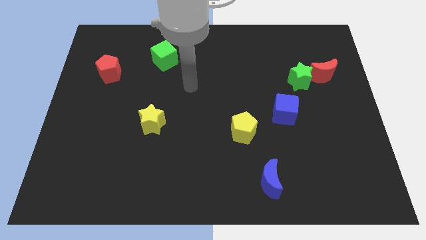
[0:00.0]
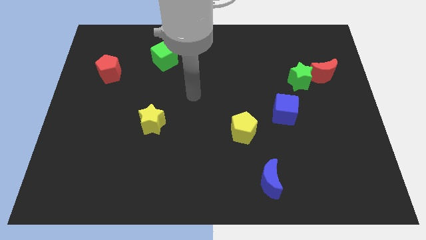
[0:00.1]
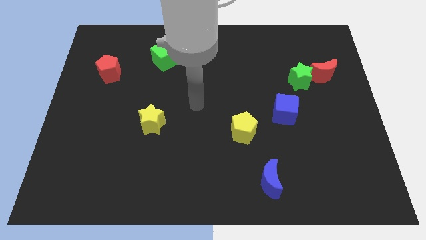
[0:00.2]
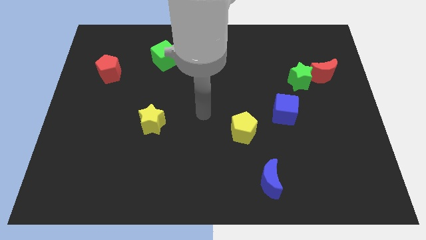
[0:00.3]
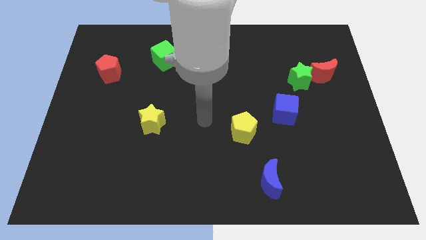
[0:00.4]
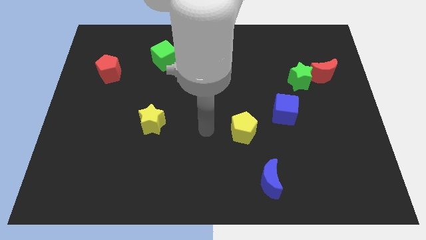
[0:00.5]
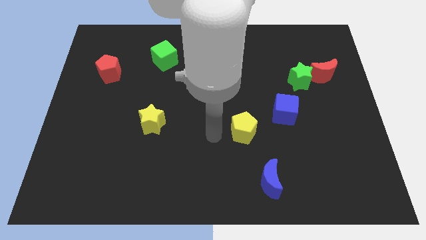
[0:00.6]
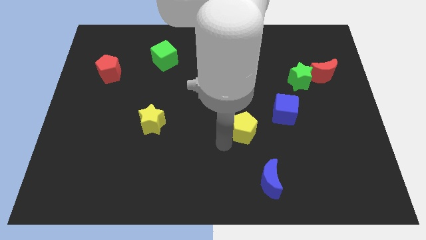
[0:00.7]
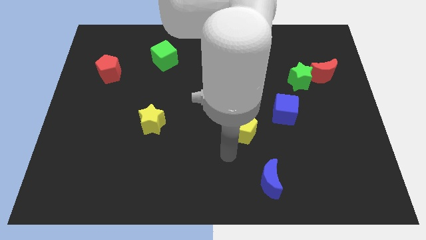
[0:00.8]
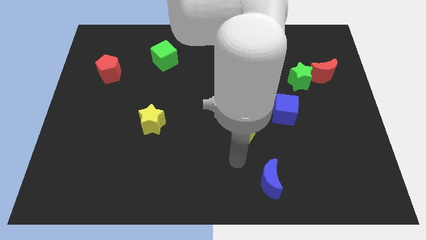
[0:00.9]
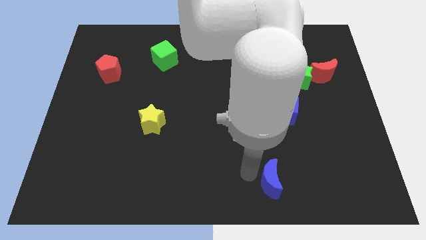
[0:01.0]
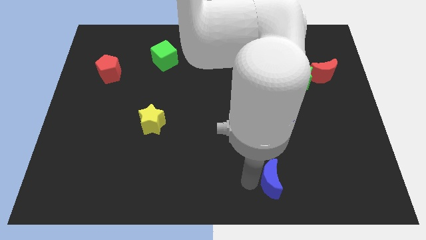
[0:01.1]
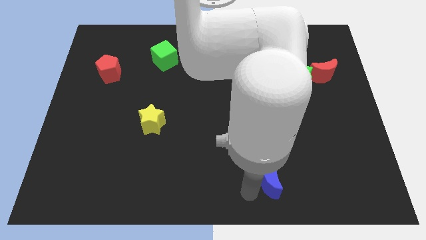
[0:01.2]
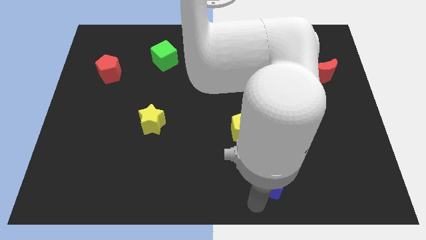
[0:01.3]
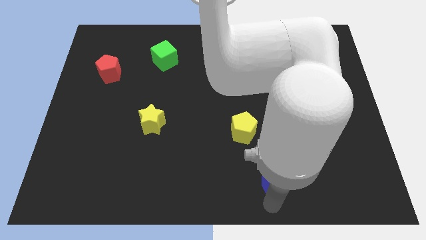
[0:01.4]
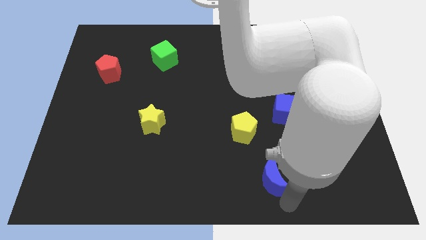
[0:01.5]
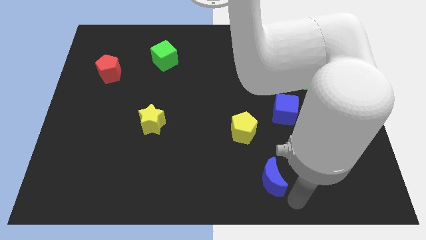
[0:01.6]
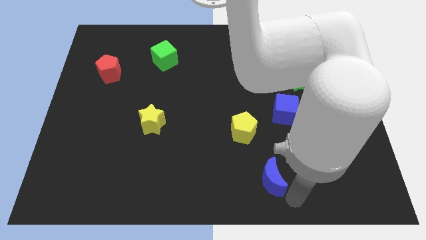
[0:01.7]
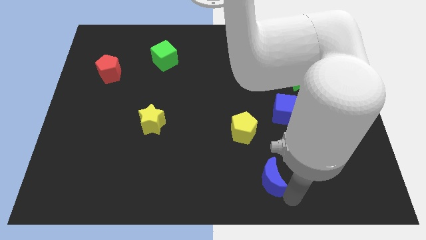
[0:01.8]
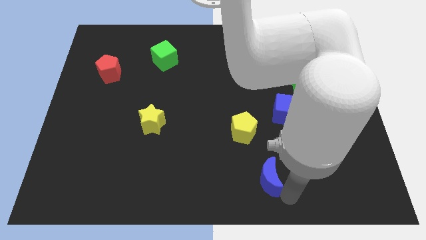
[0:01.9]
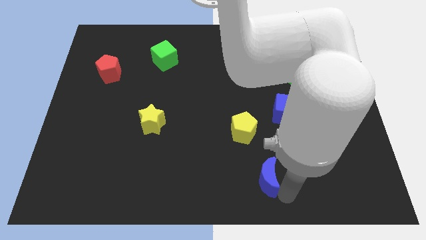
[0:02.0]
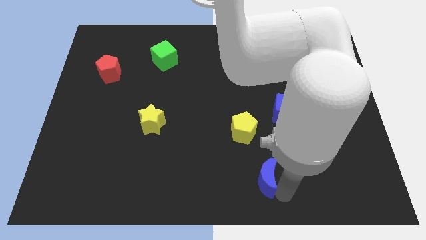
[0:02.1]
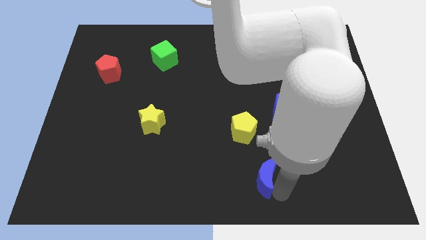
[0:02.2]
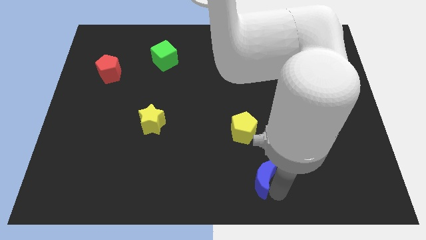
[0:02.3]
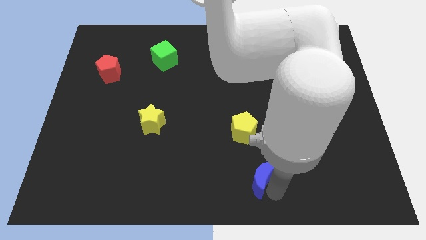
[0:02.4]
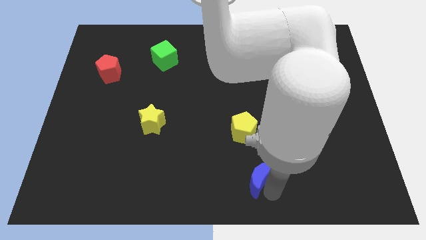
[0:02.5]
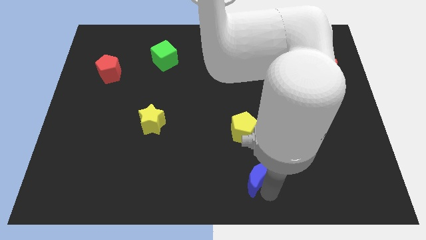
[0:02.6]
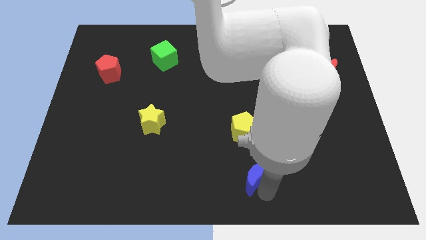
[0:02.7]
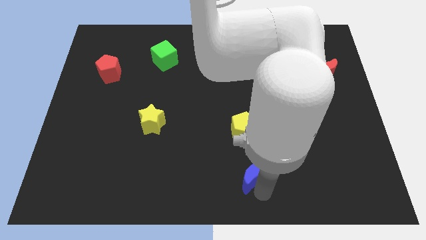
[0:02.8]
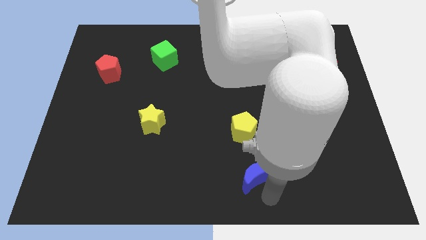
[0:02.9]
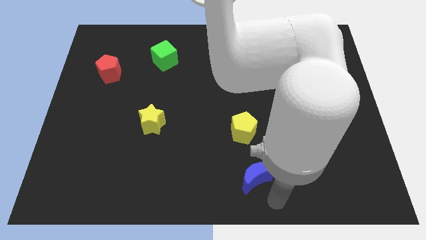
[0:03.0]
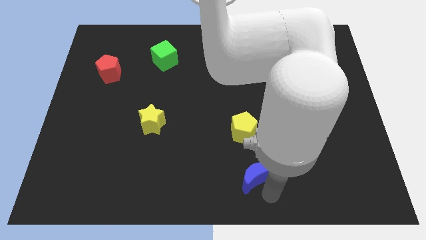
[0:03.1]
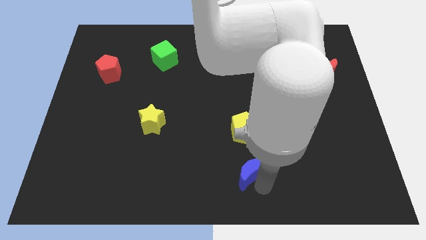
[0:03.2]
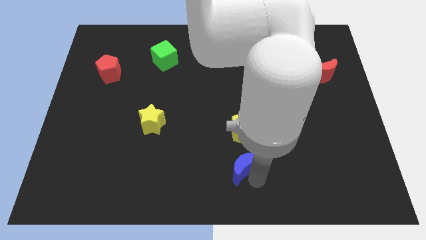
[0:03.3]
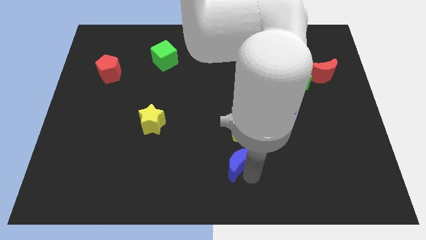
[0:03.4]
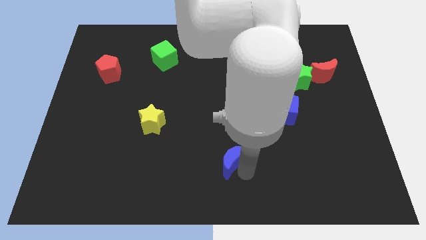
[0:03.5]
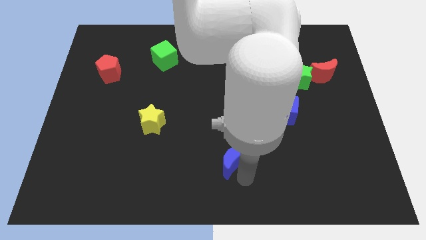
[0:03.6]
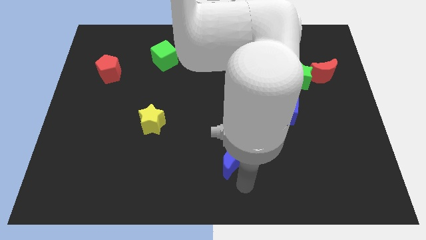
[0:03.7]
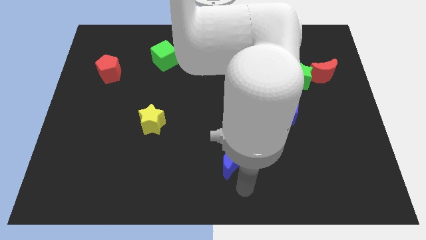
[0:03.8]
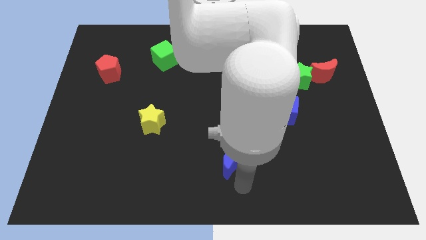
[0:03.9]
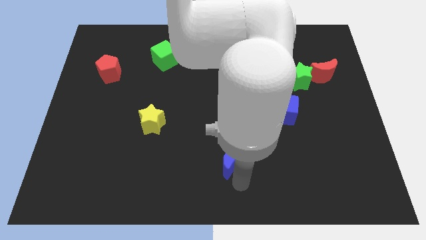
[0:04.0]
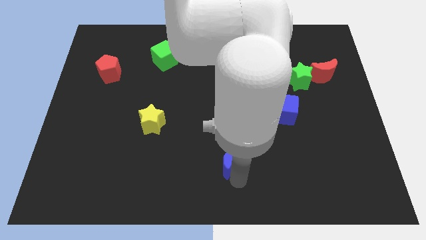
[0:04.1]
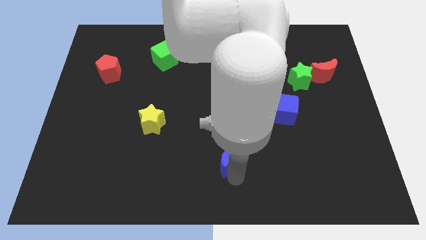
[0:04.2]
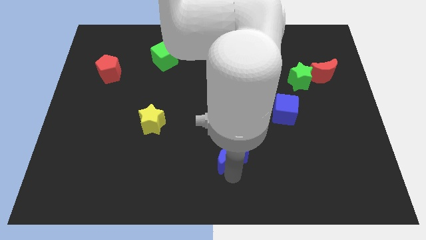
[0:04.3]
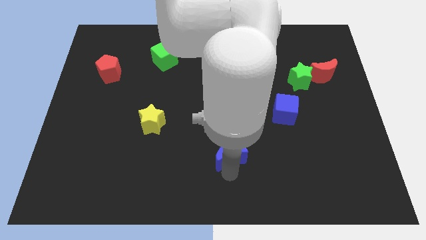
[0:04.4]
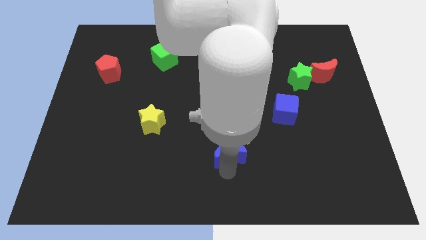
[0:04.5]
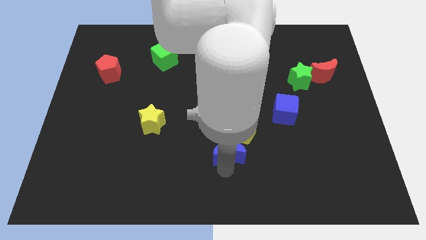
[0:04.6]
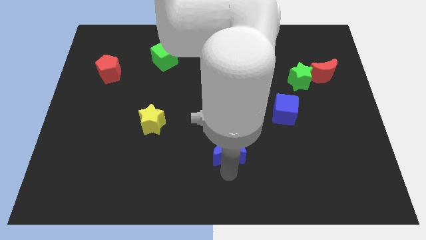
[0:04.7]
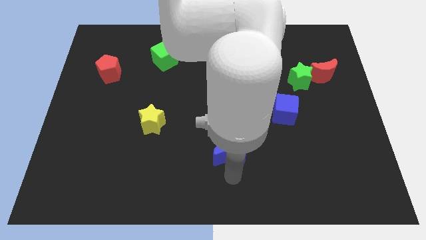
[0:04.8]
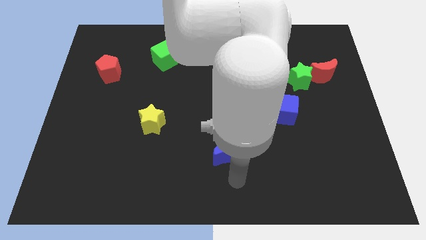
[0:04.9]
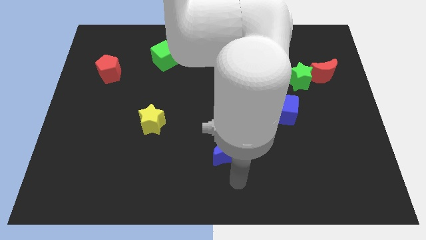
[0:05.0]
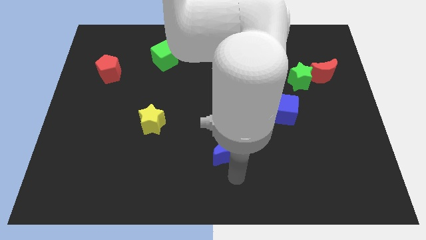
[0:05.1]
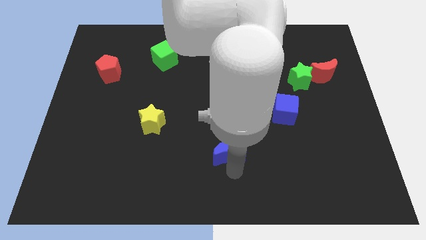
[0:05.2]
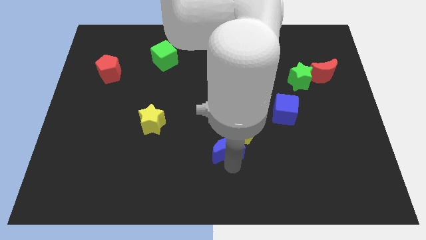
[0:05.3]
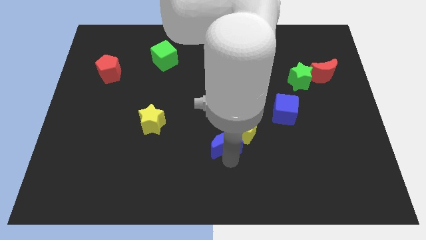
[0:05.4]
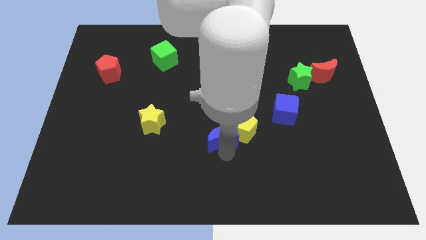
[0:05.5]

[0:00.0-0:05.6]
push the blue moon to the middle
